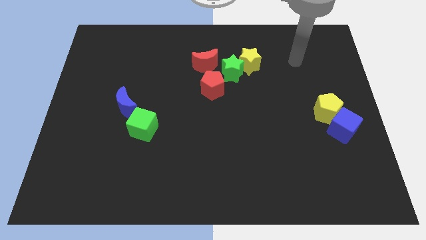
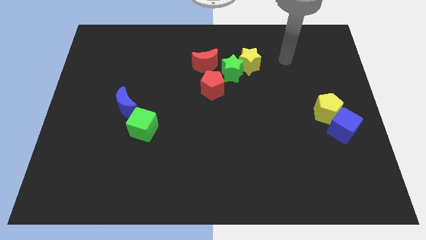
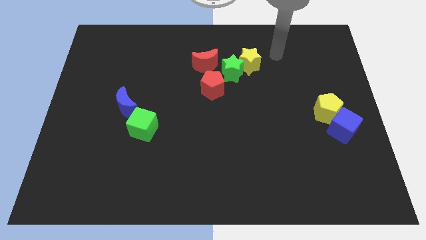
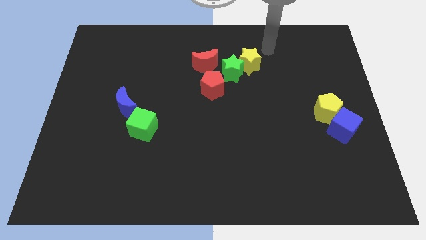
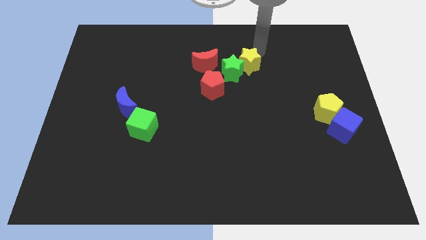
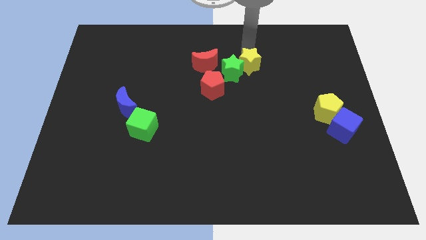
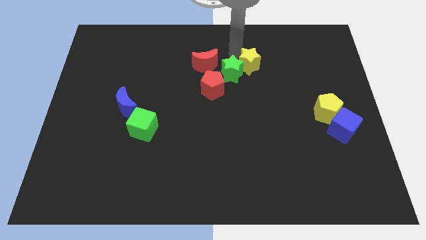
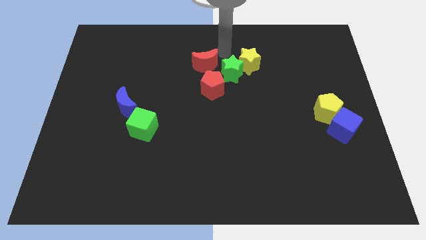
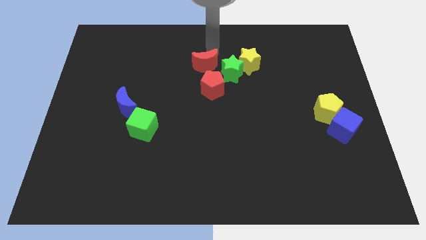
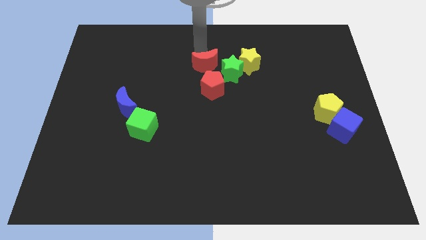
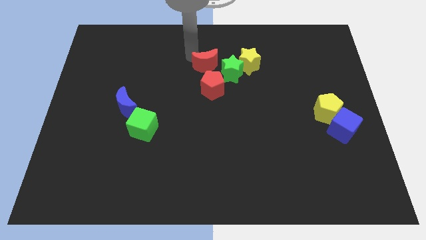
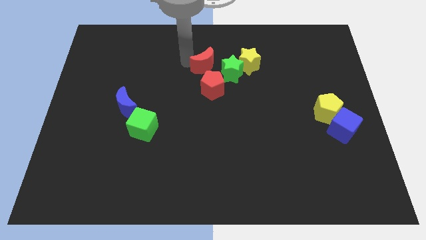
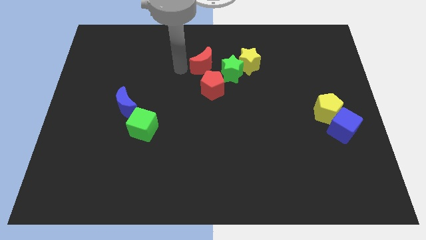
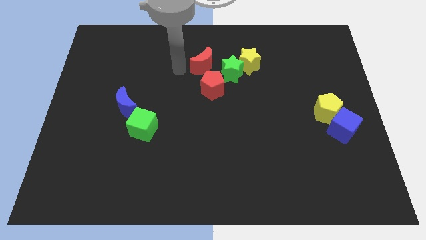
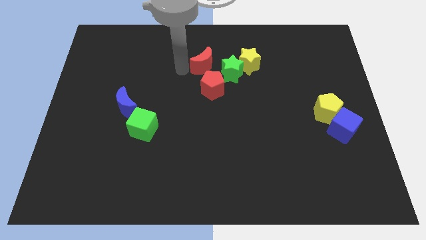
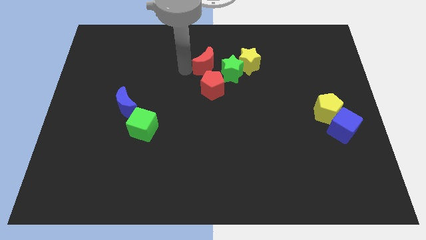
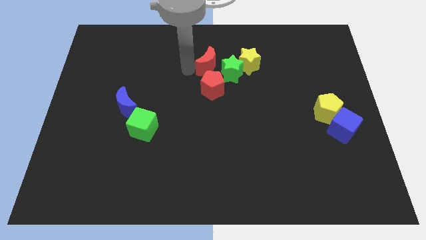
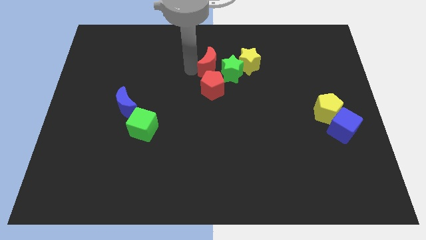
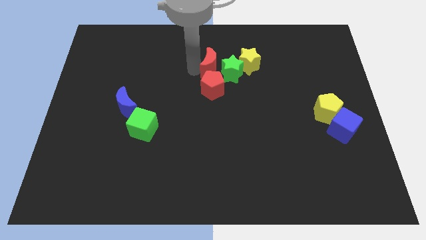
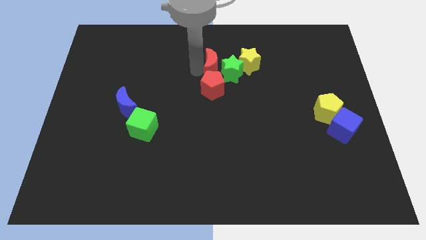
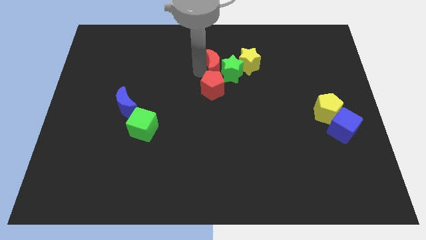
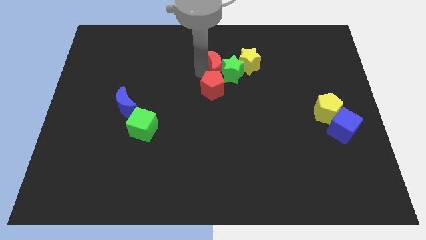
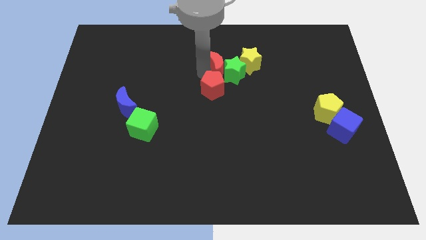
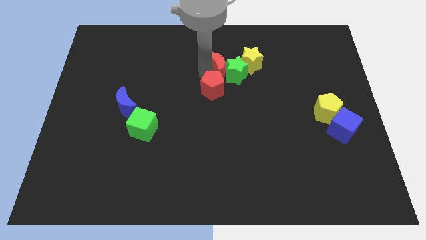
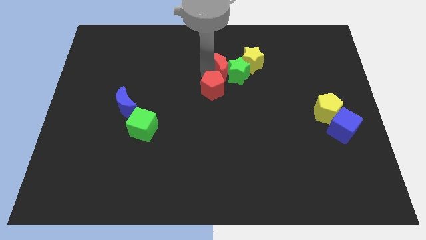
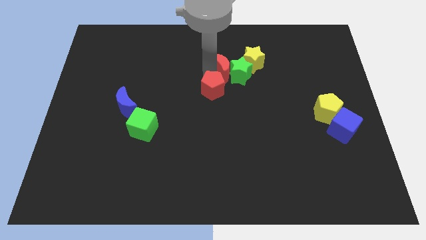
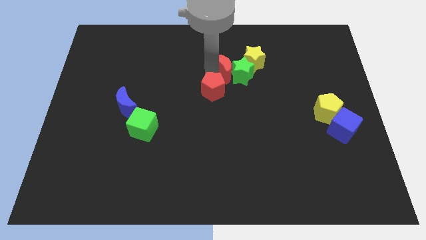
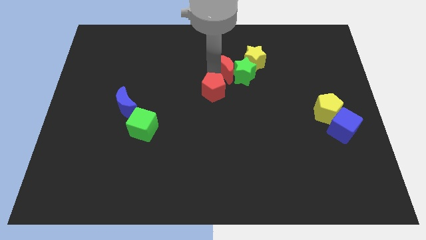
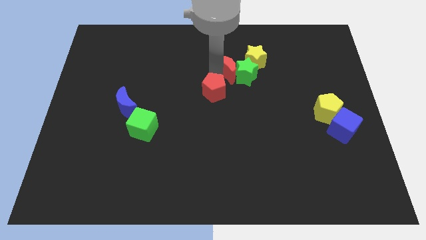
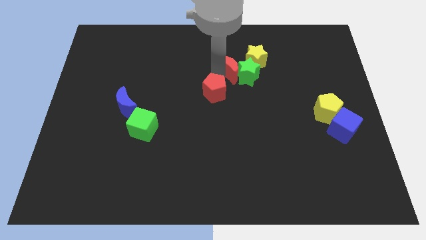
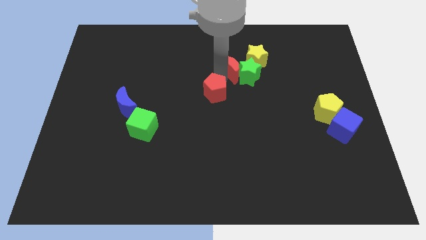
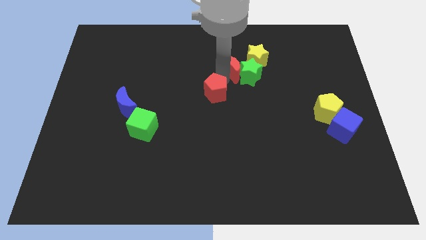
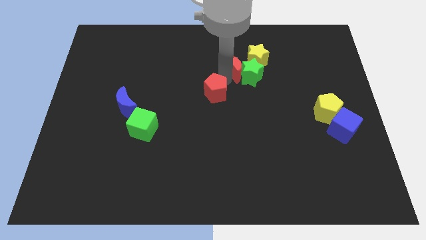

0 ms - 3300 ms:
slightly move the red moon right

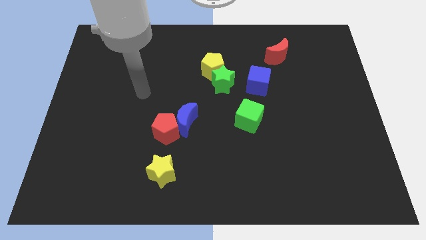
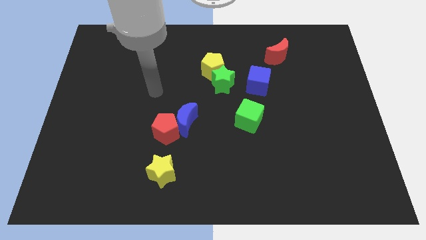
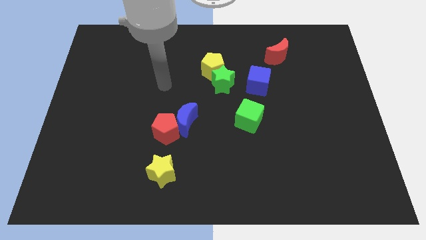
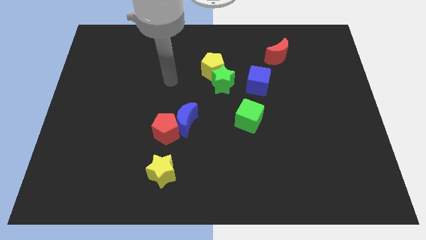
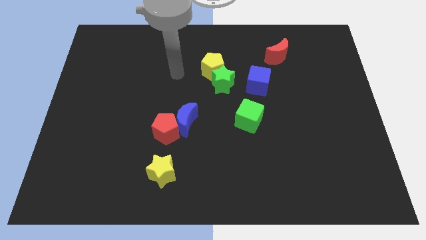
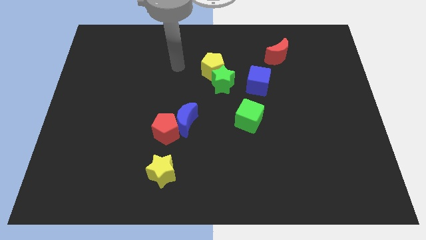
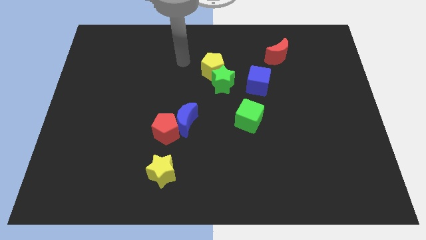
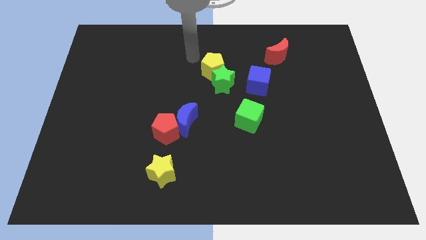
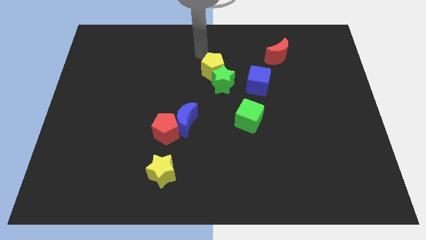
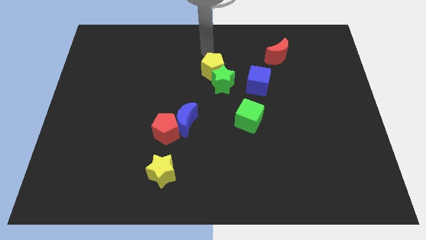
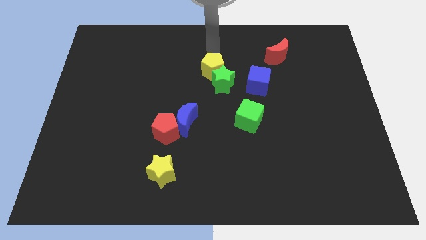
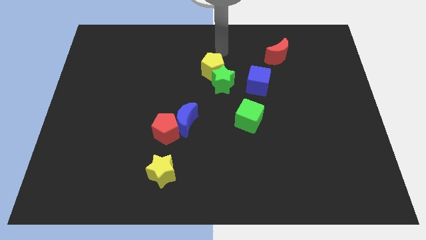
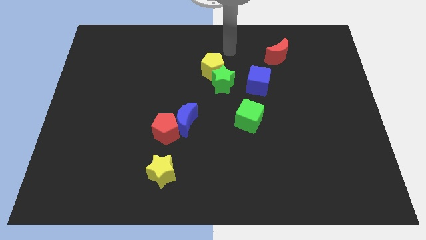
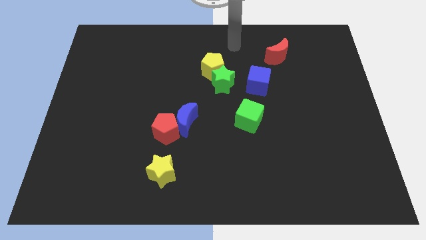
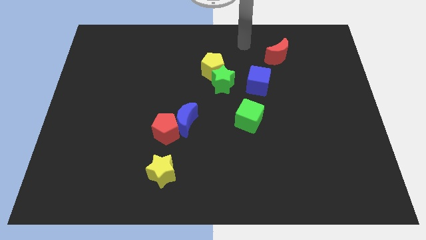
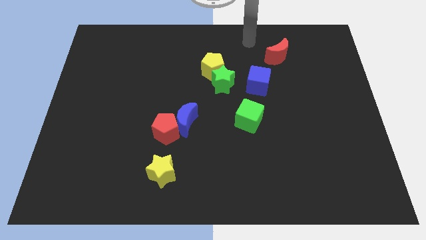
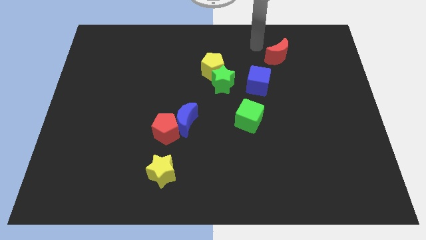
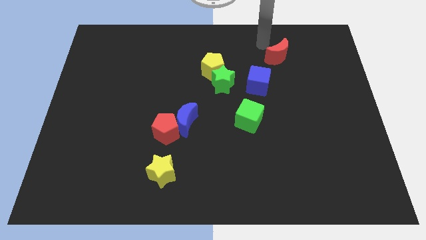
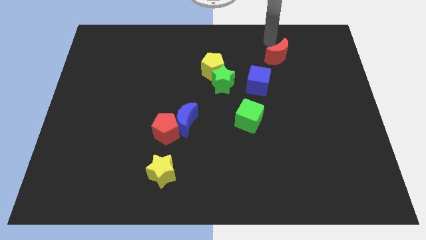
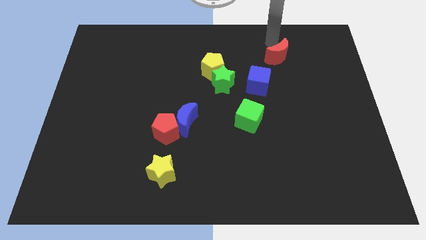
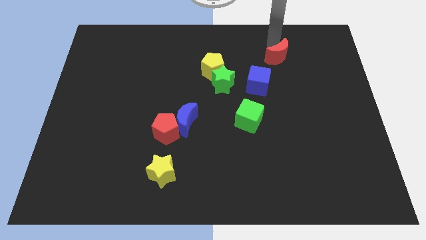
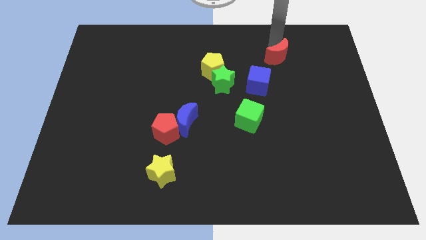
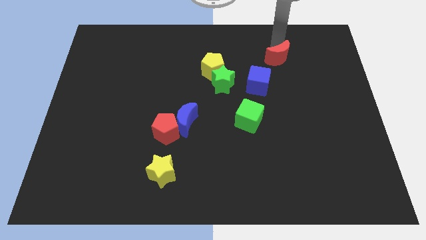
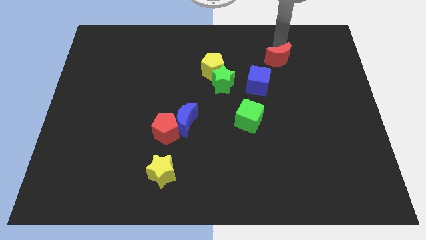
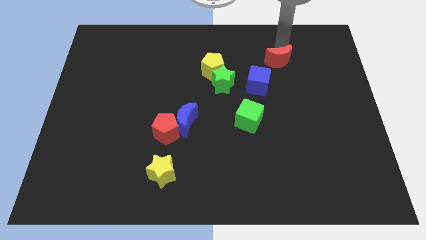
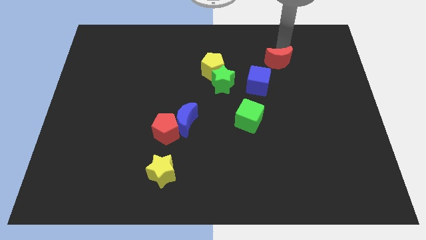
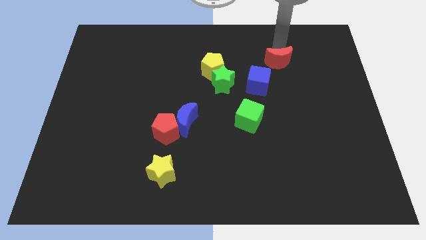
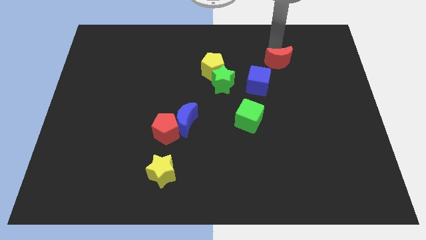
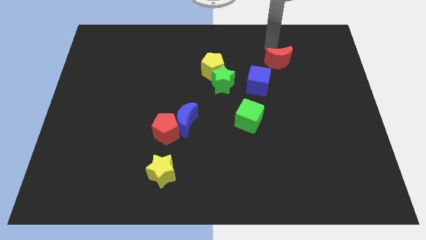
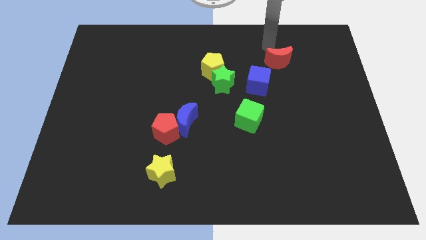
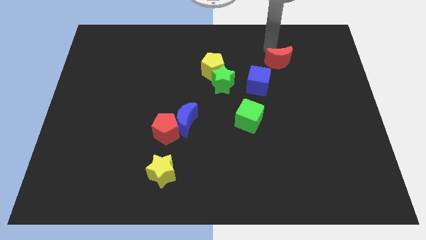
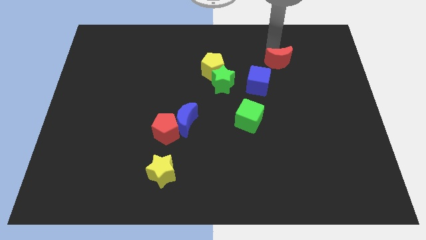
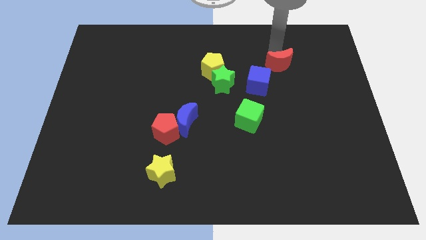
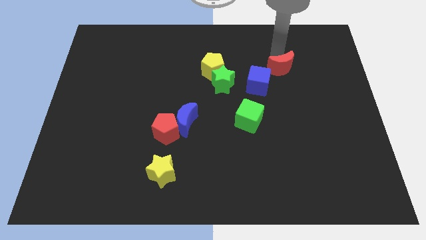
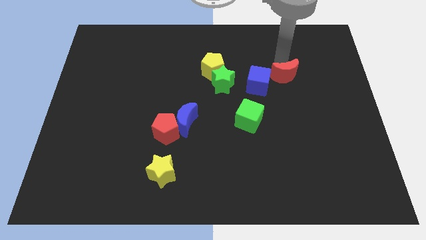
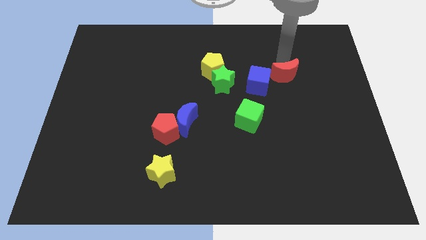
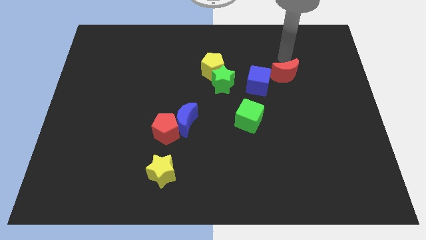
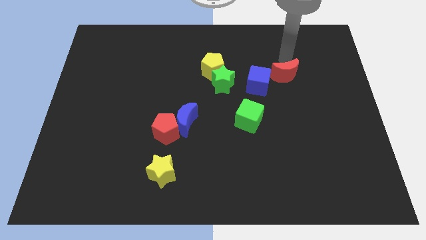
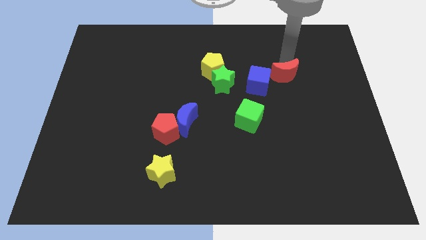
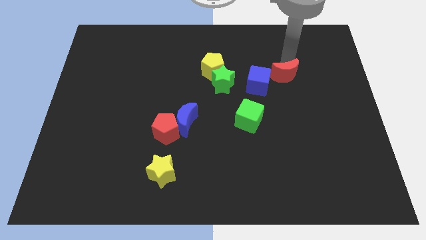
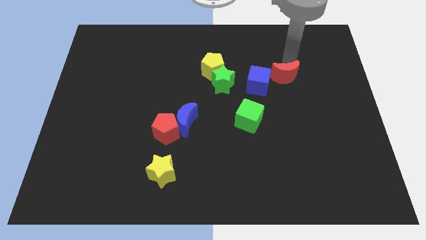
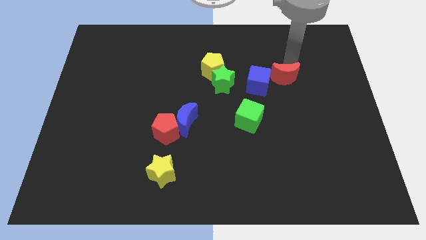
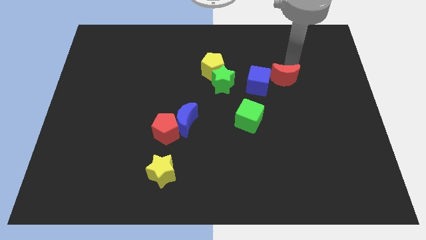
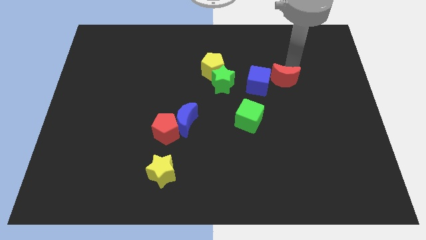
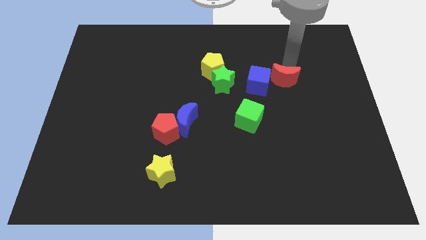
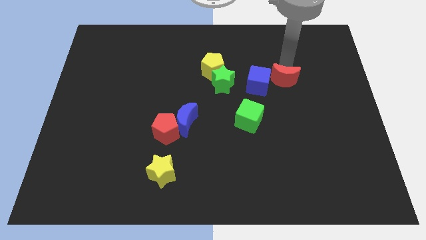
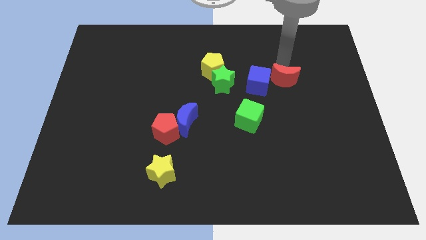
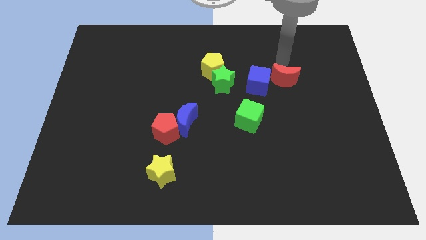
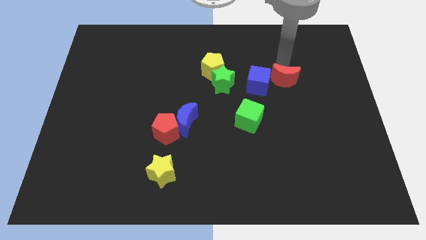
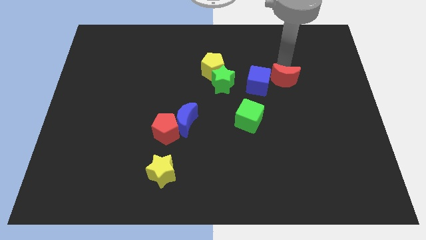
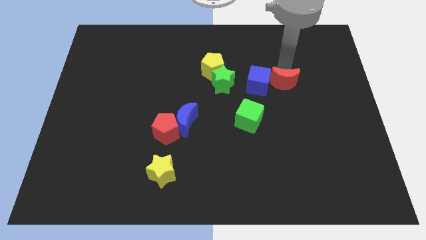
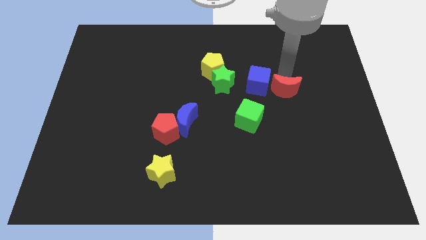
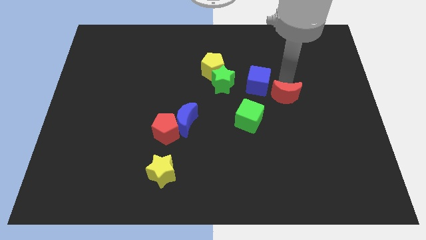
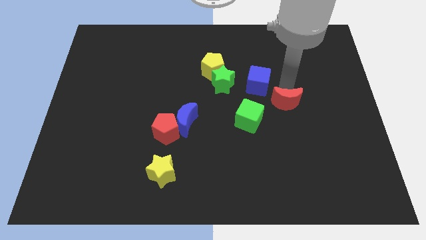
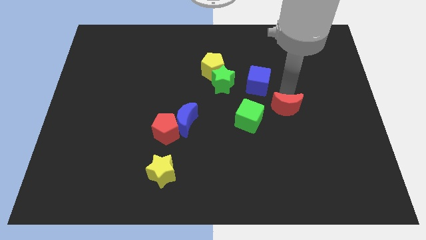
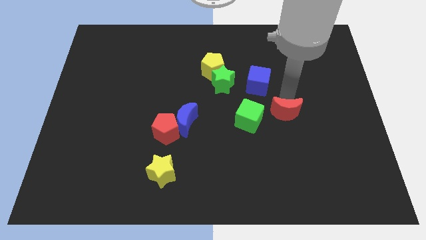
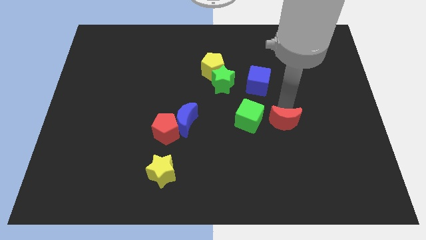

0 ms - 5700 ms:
slide the red moon down
